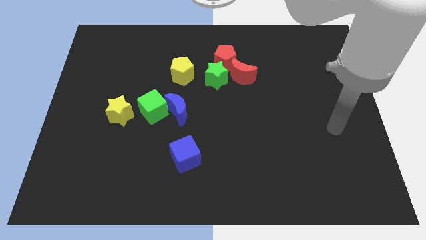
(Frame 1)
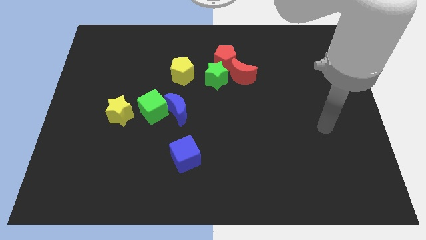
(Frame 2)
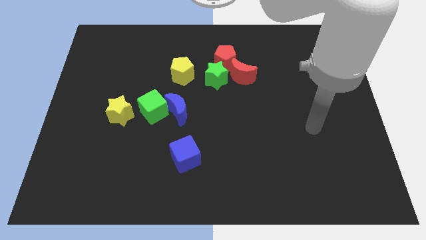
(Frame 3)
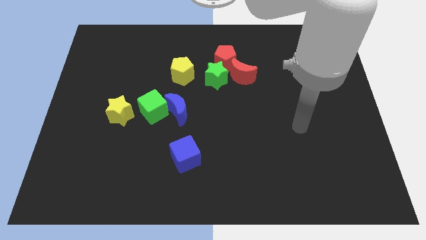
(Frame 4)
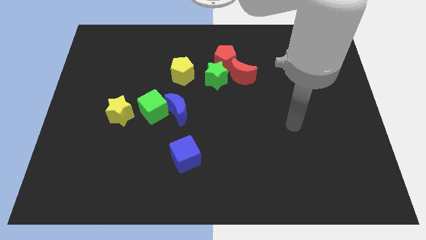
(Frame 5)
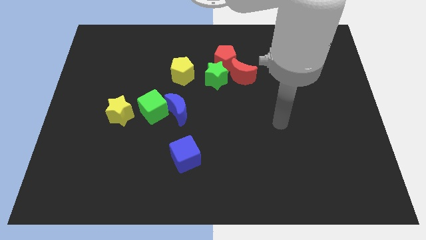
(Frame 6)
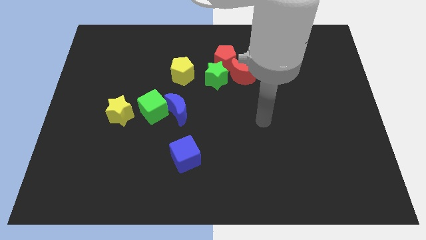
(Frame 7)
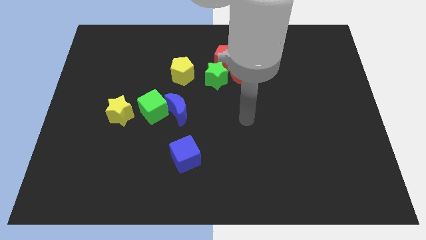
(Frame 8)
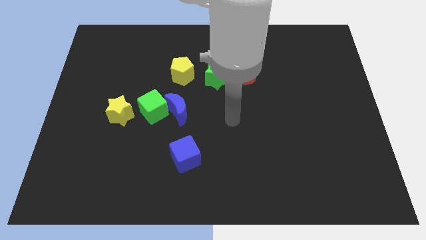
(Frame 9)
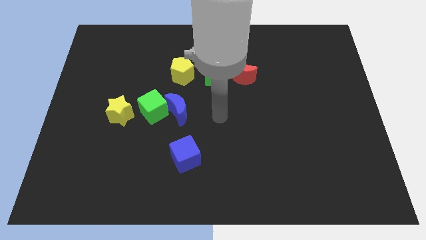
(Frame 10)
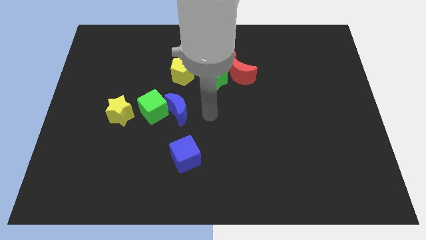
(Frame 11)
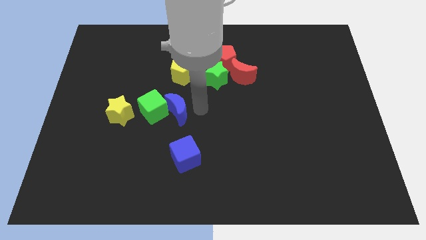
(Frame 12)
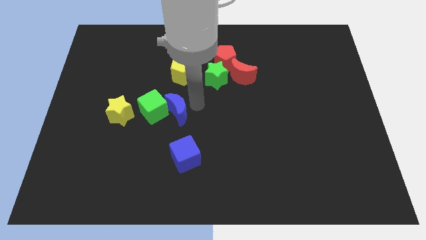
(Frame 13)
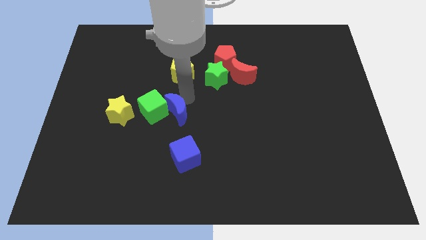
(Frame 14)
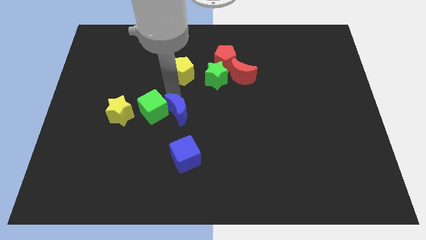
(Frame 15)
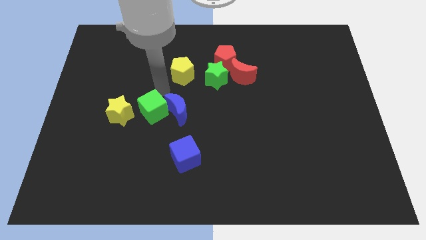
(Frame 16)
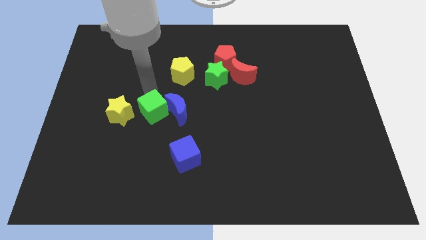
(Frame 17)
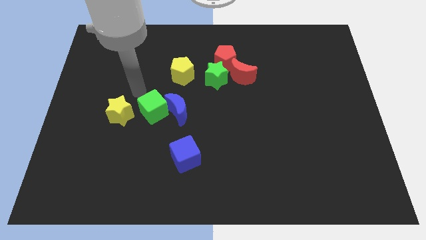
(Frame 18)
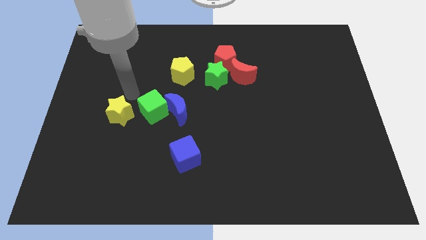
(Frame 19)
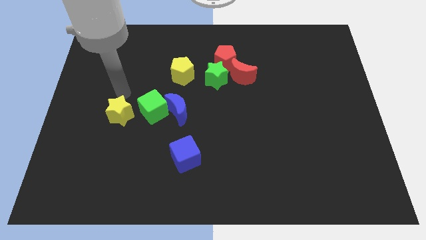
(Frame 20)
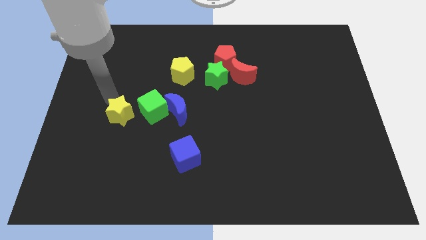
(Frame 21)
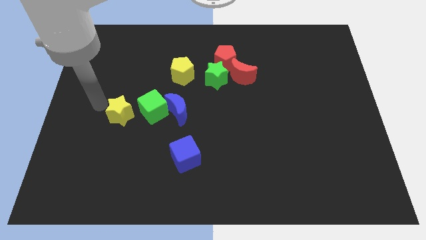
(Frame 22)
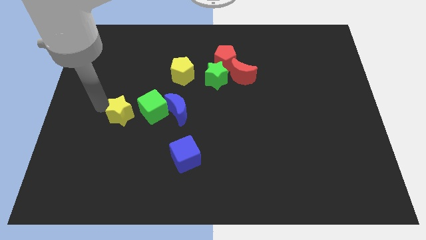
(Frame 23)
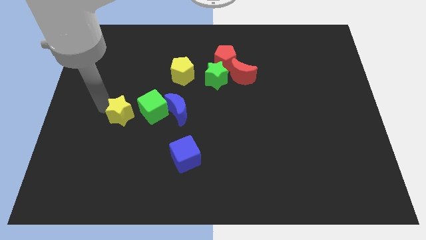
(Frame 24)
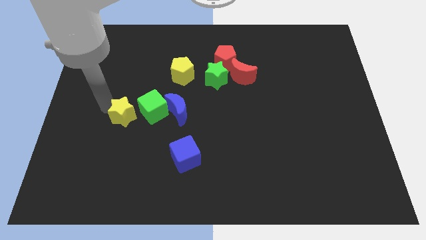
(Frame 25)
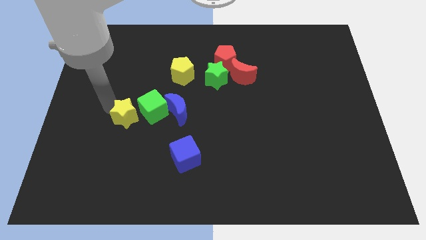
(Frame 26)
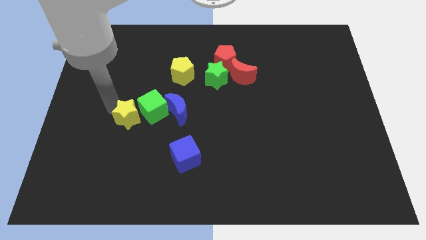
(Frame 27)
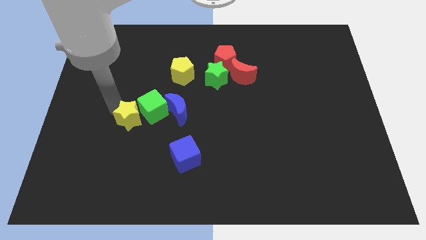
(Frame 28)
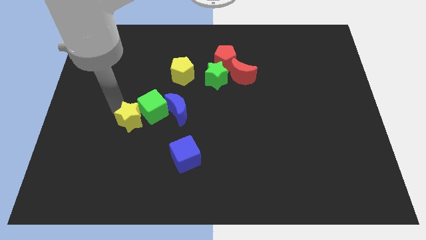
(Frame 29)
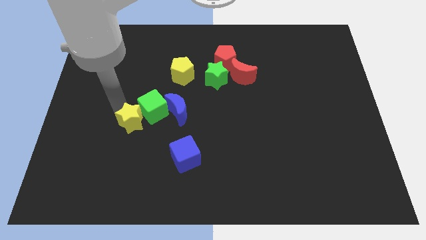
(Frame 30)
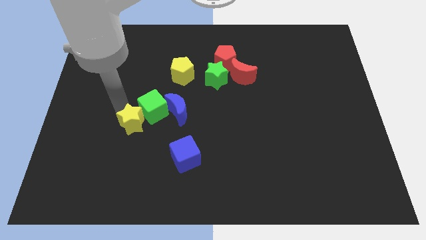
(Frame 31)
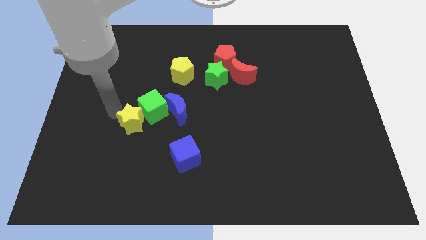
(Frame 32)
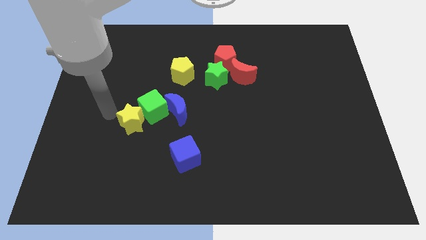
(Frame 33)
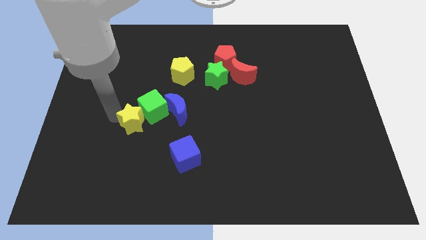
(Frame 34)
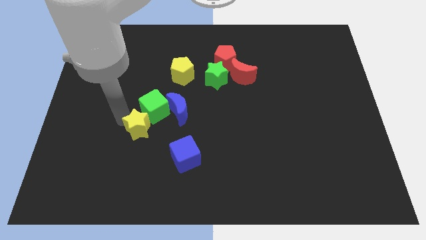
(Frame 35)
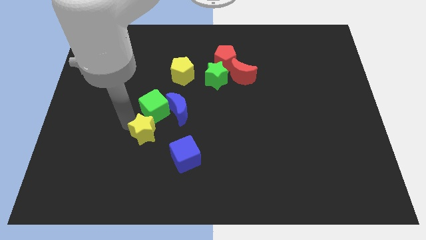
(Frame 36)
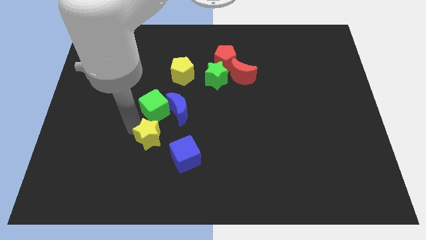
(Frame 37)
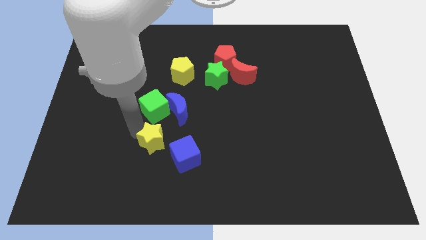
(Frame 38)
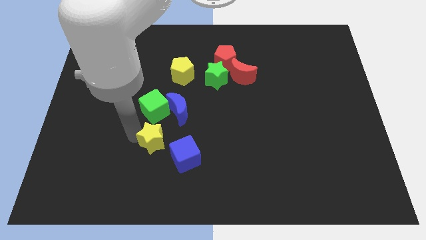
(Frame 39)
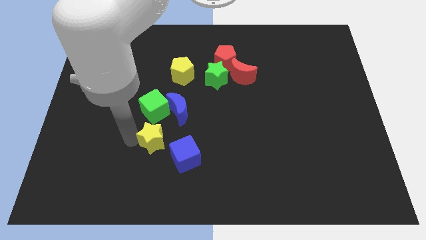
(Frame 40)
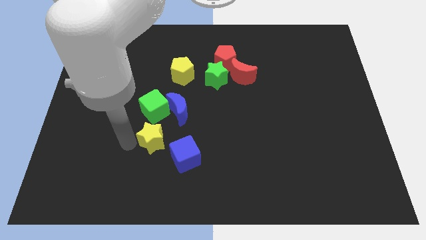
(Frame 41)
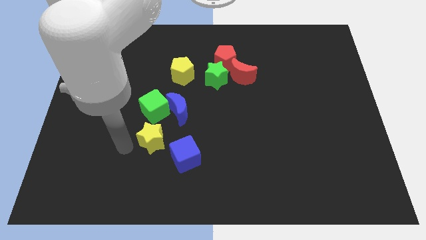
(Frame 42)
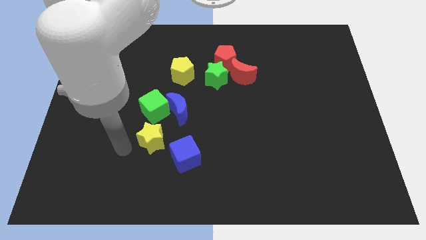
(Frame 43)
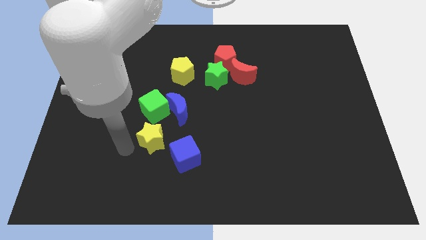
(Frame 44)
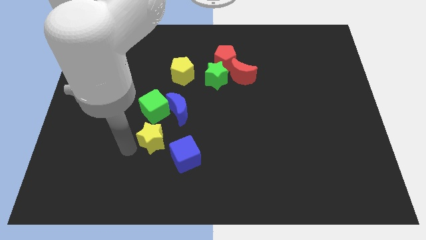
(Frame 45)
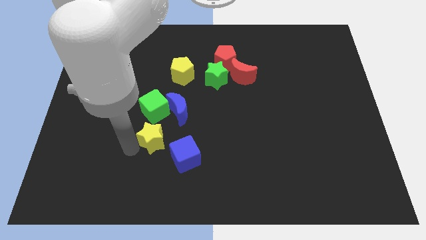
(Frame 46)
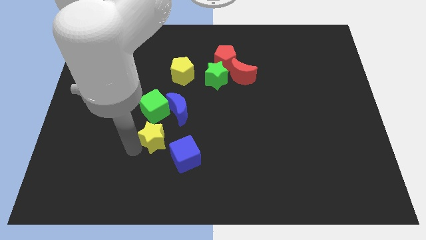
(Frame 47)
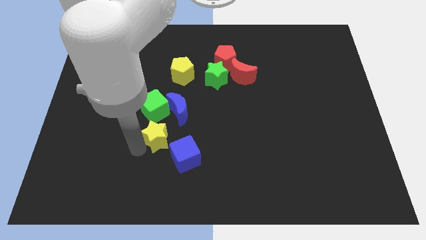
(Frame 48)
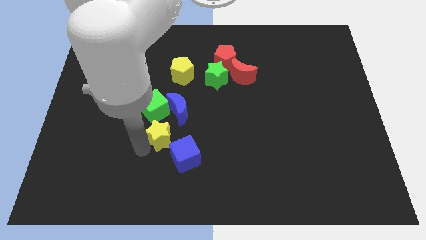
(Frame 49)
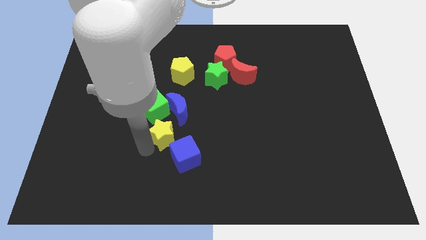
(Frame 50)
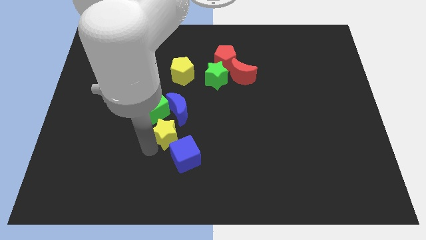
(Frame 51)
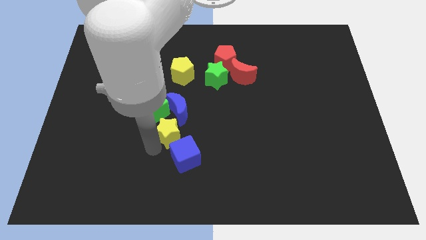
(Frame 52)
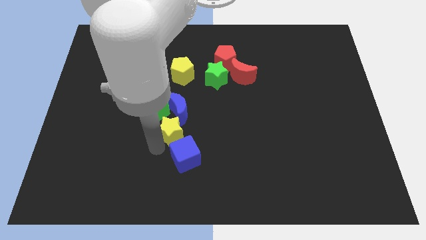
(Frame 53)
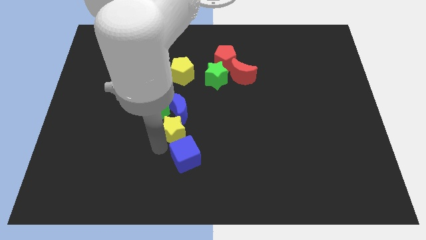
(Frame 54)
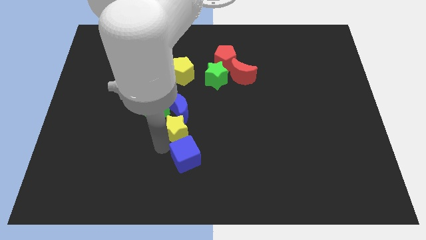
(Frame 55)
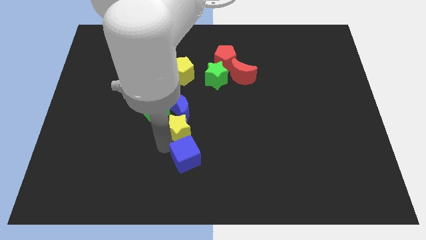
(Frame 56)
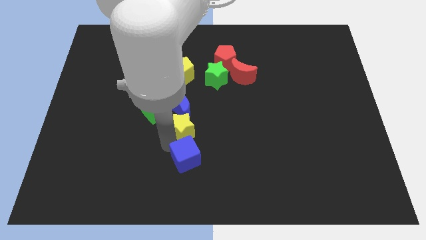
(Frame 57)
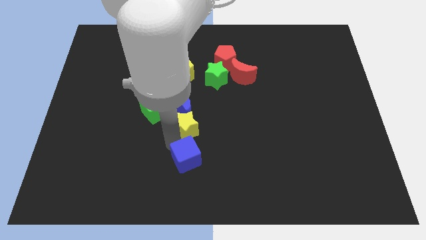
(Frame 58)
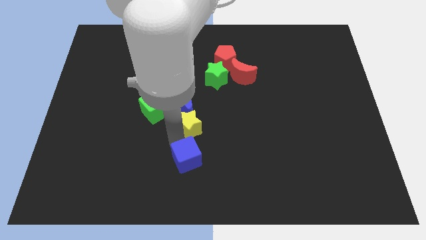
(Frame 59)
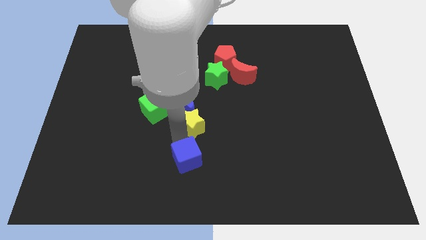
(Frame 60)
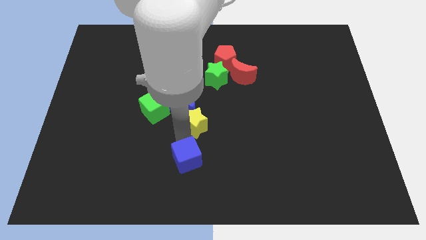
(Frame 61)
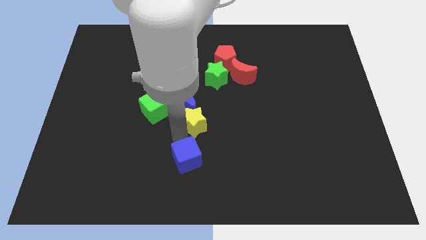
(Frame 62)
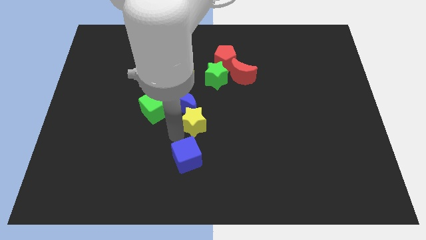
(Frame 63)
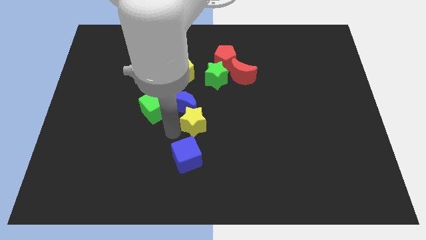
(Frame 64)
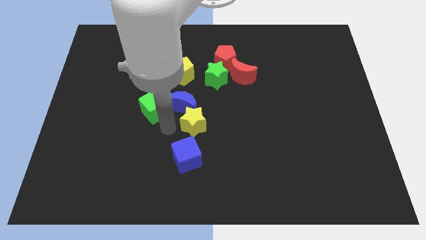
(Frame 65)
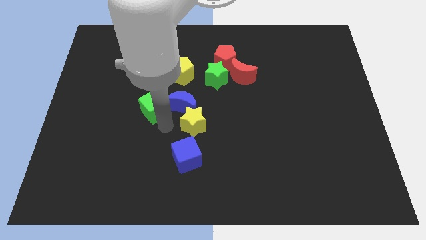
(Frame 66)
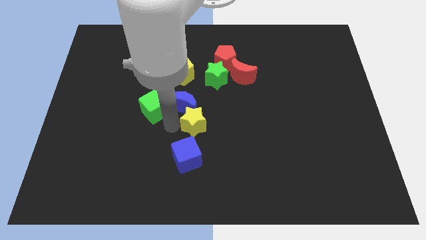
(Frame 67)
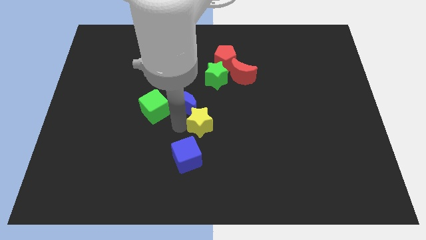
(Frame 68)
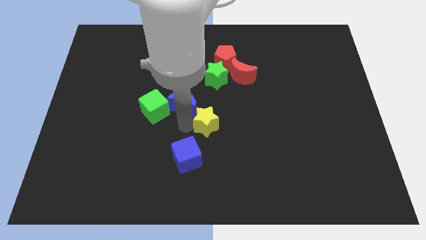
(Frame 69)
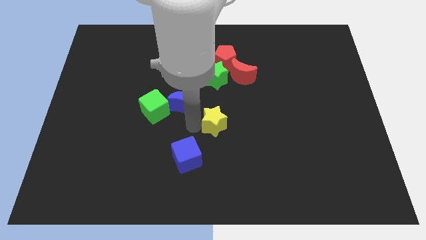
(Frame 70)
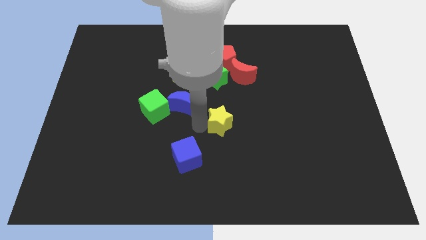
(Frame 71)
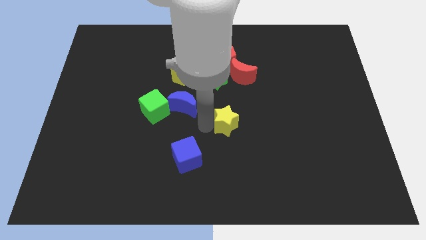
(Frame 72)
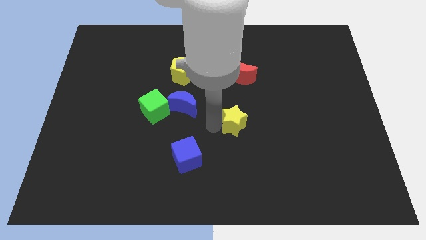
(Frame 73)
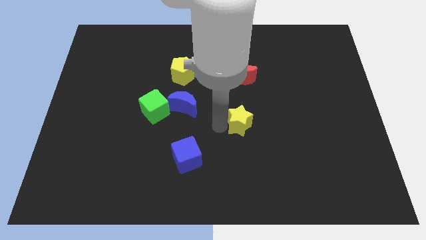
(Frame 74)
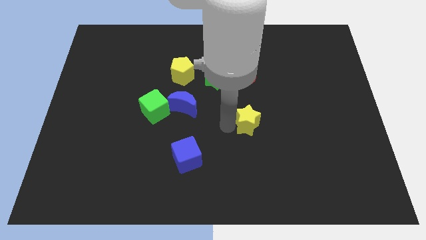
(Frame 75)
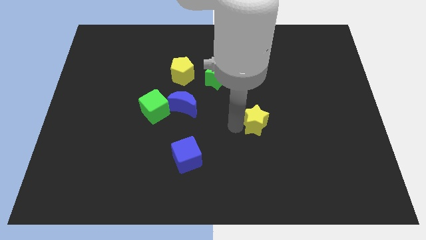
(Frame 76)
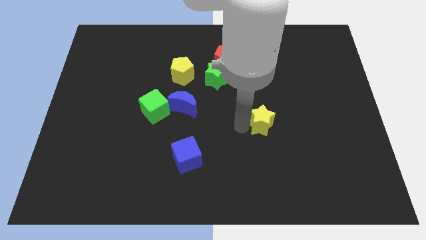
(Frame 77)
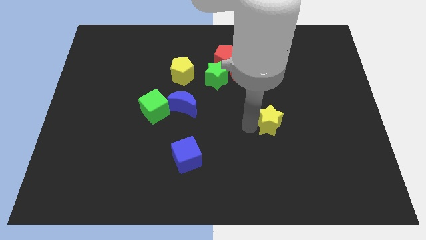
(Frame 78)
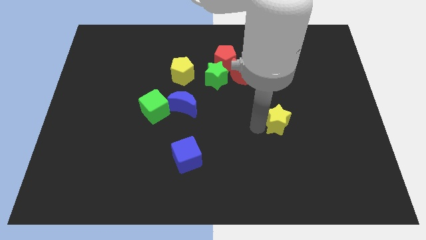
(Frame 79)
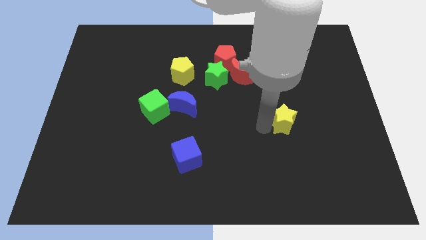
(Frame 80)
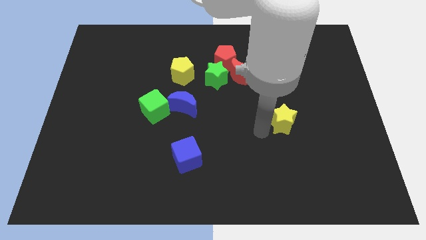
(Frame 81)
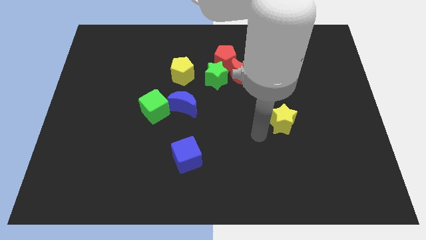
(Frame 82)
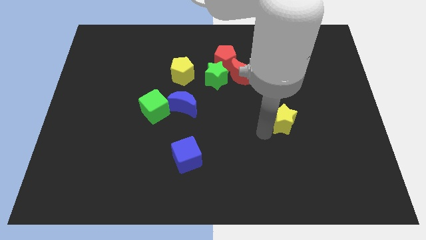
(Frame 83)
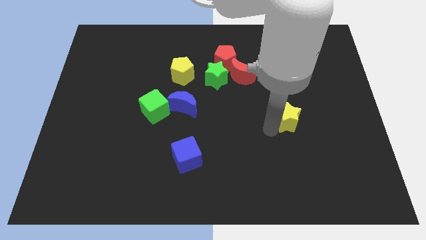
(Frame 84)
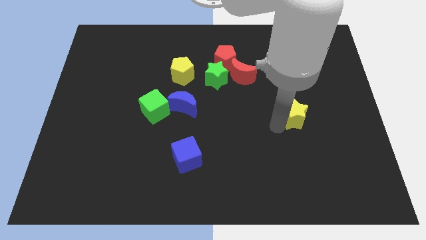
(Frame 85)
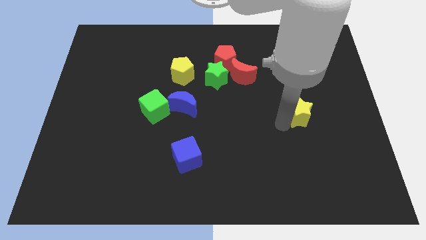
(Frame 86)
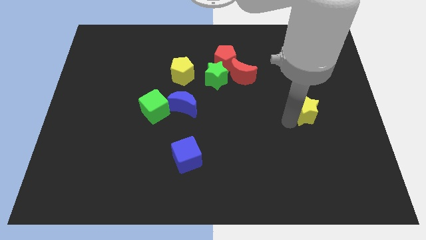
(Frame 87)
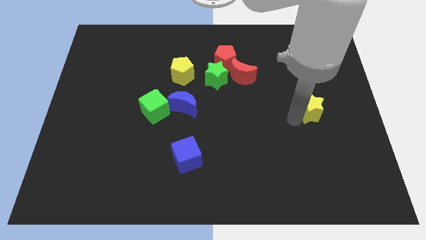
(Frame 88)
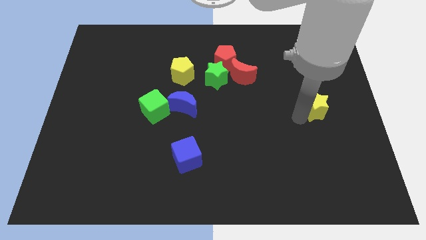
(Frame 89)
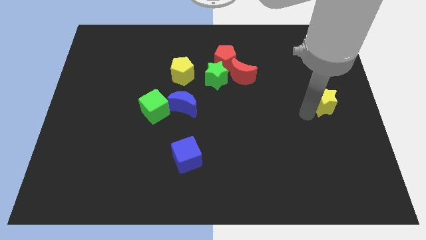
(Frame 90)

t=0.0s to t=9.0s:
push the yellow star to the right side of the board
